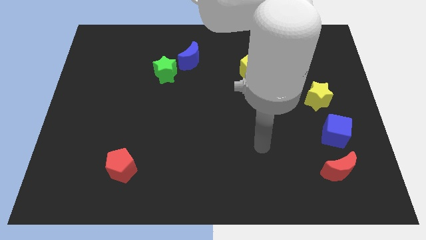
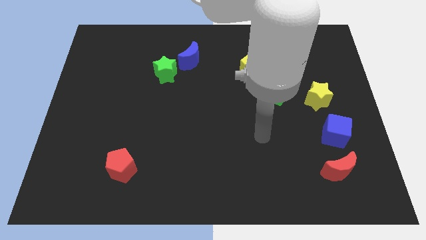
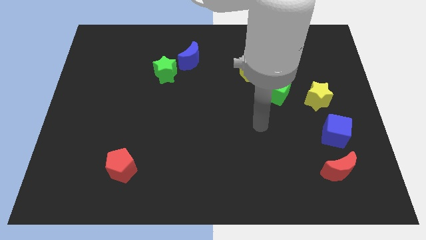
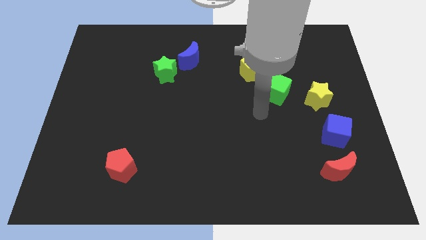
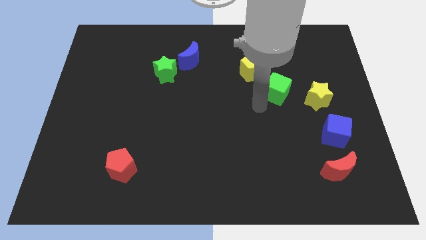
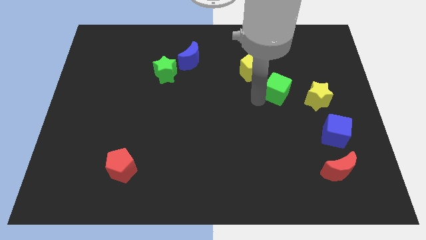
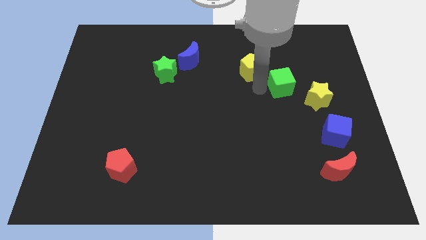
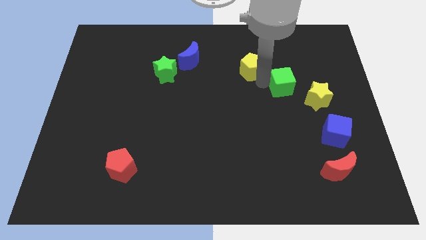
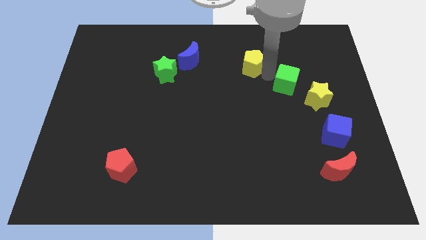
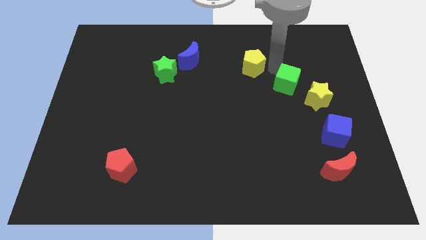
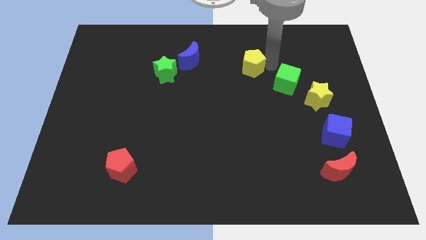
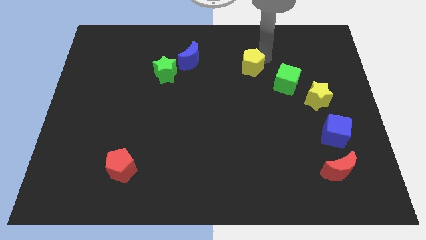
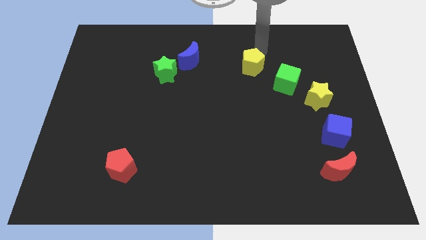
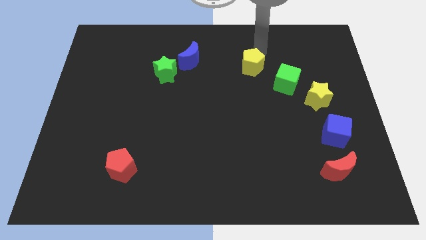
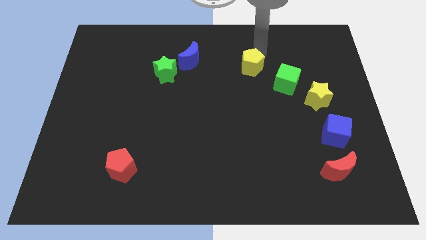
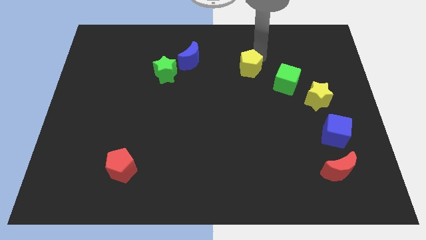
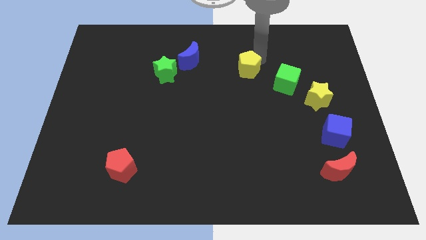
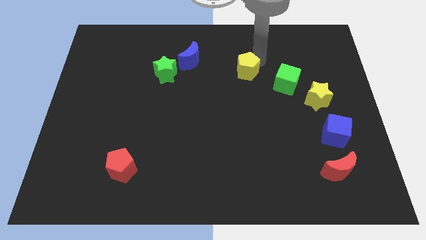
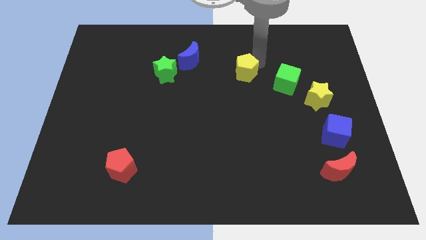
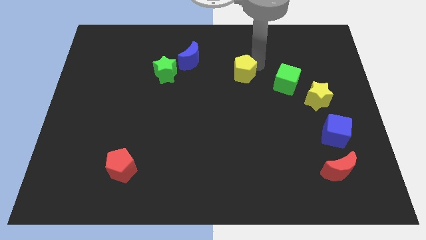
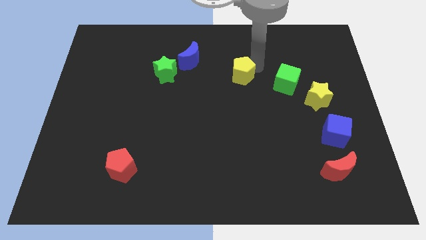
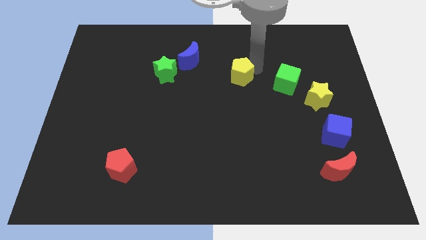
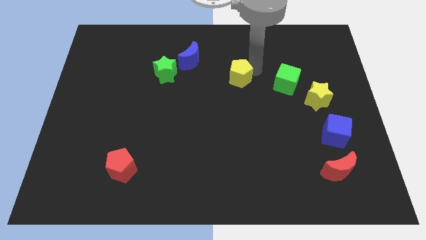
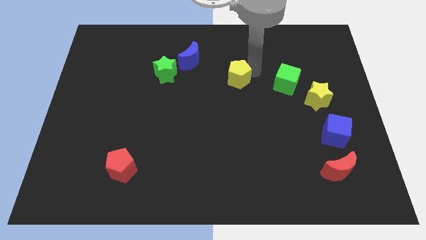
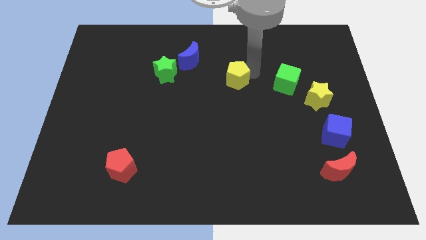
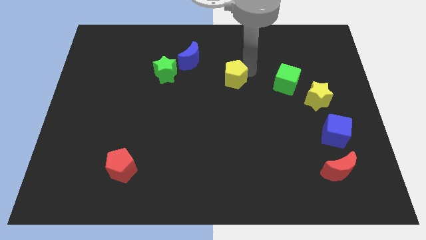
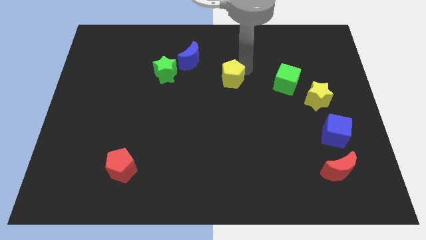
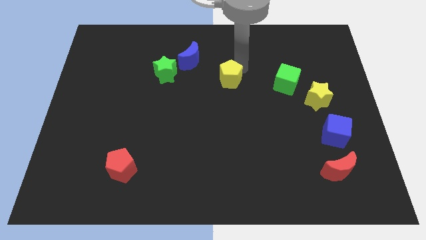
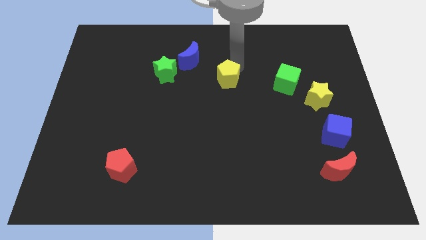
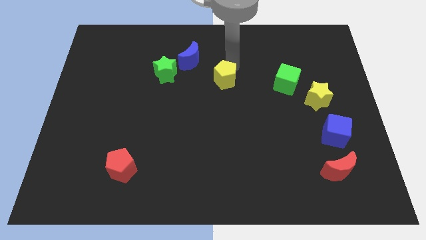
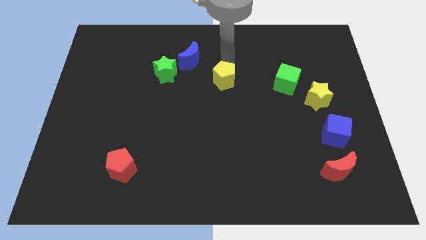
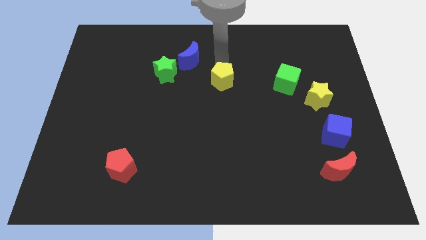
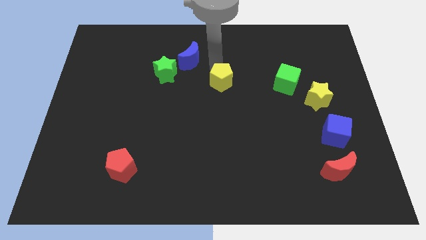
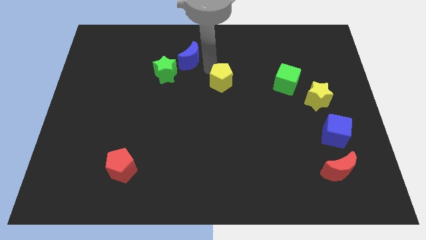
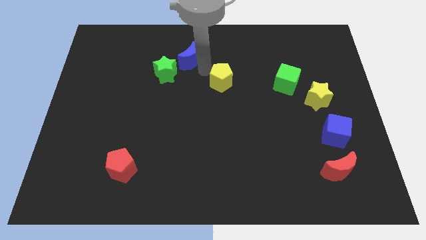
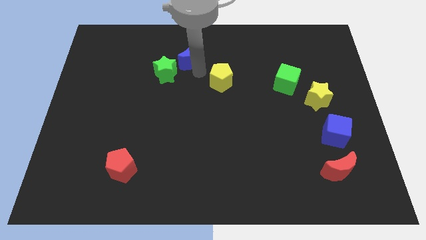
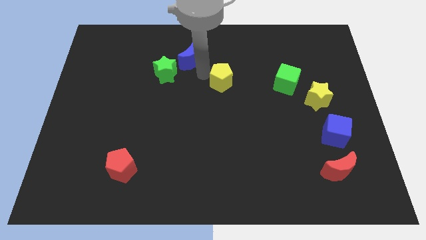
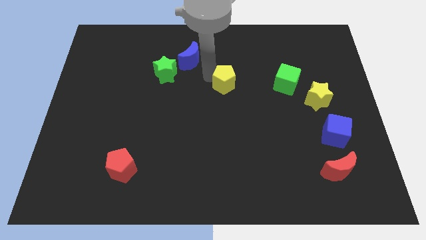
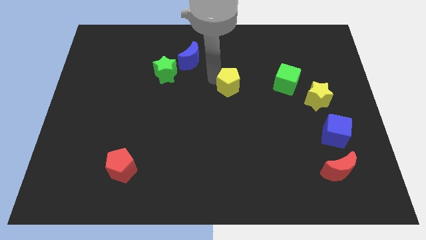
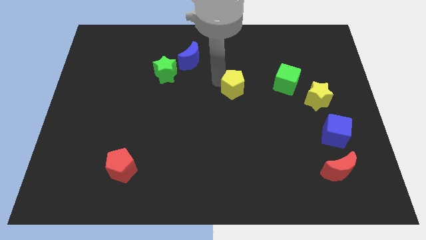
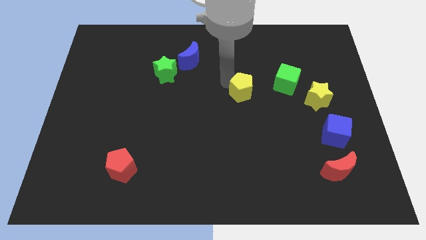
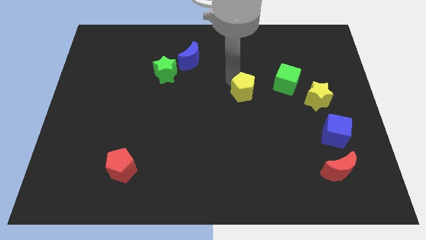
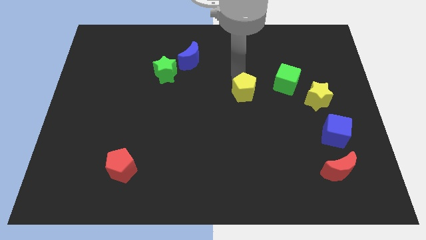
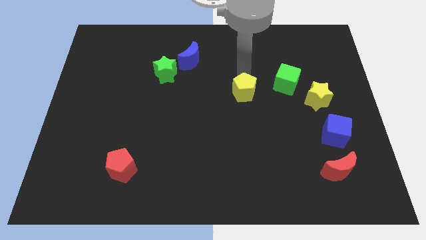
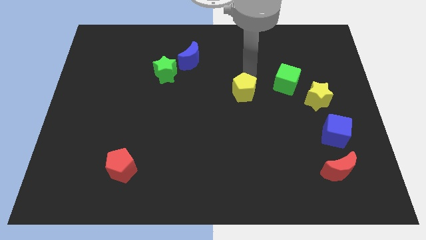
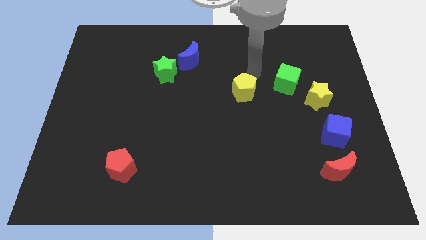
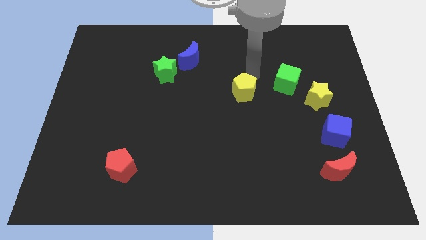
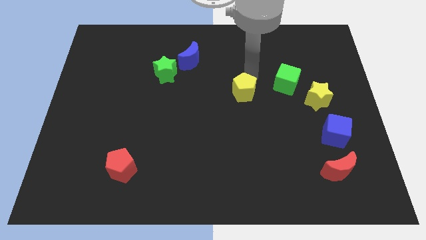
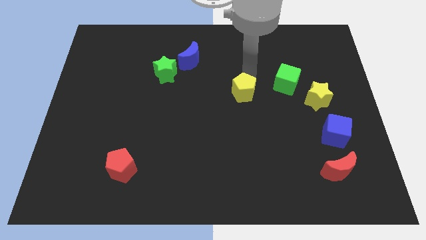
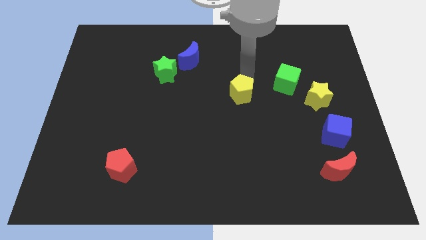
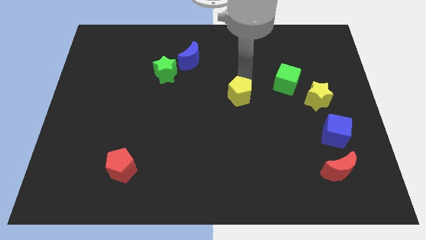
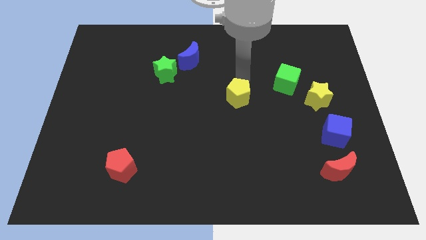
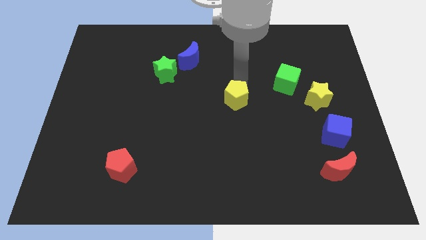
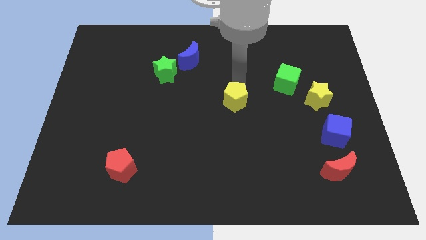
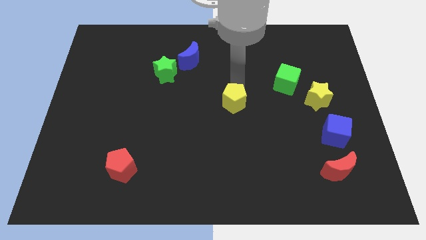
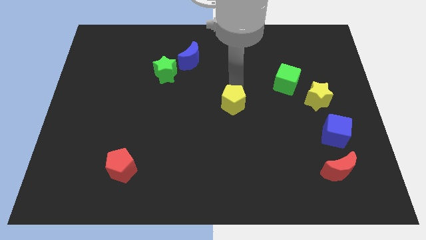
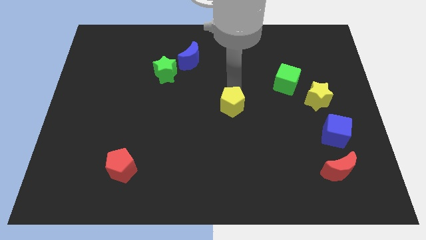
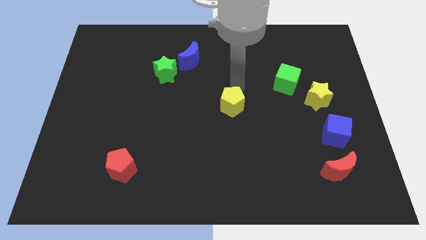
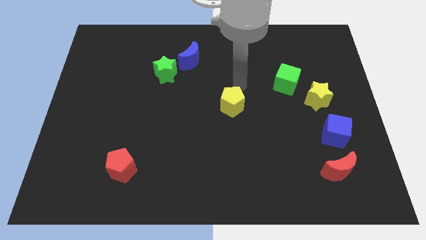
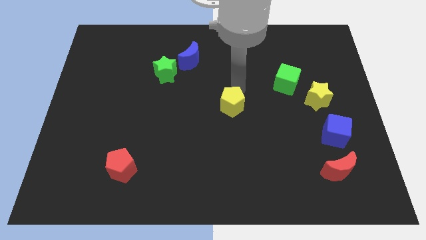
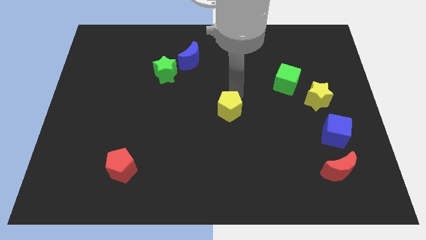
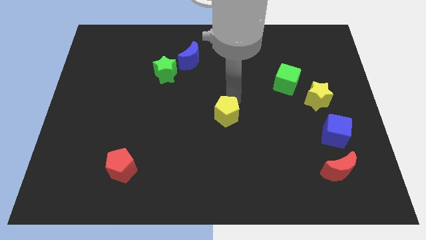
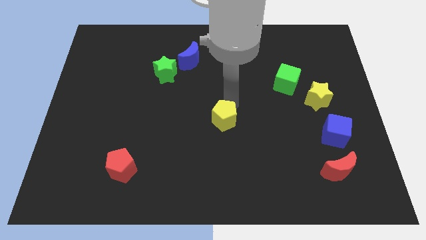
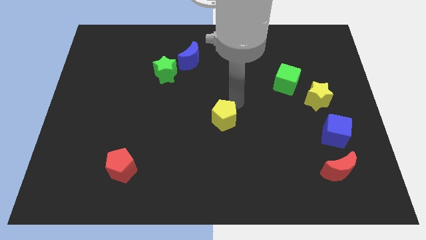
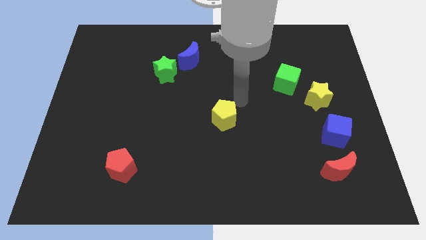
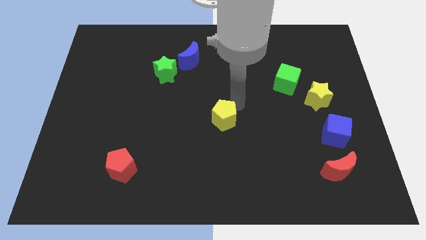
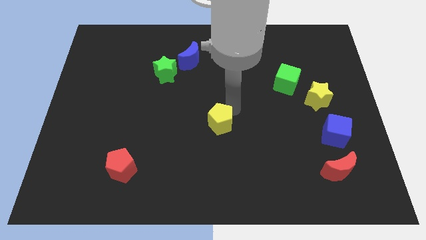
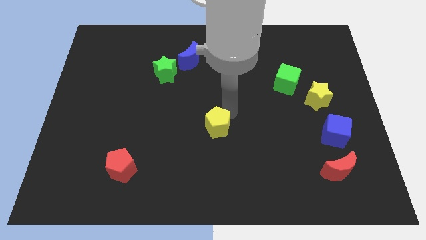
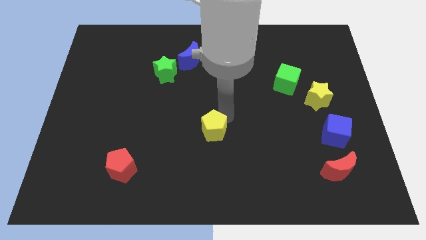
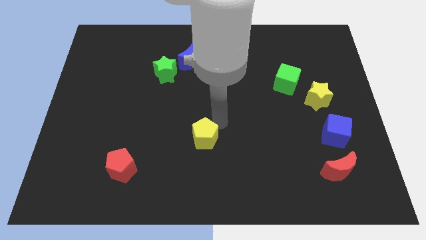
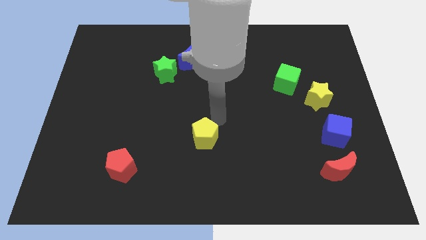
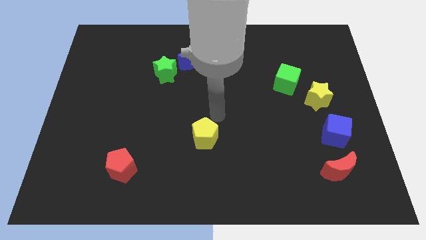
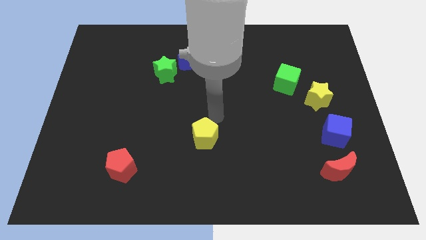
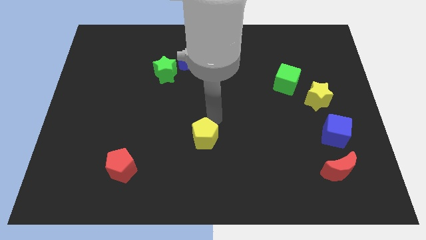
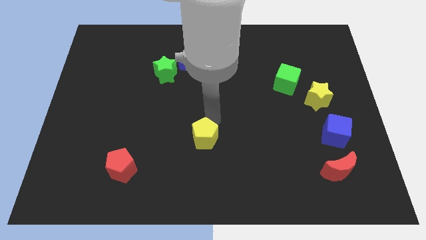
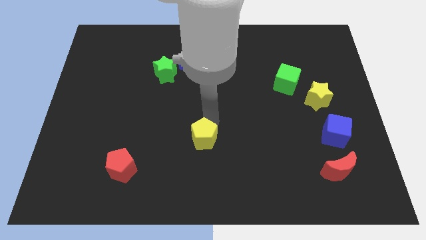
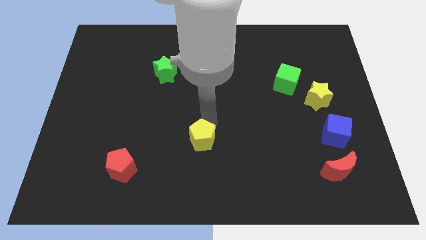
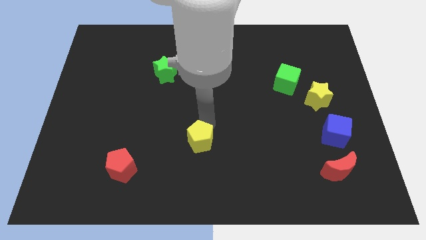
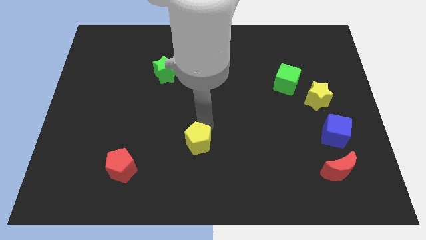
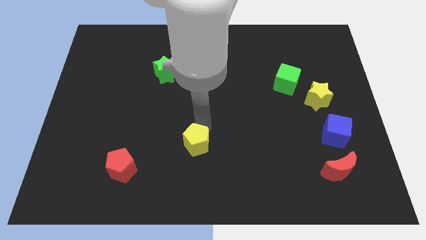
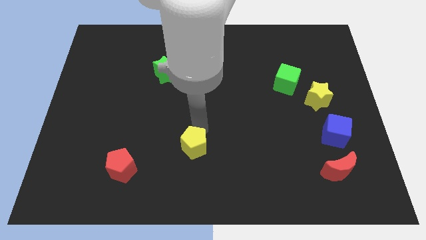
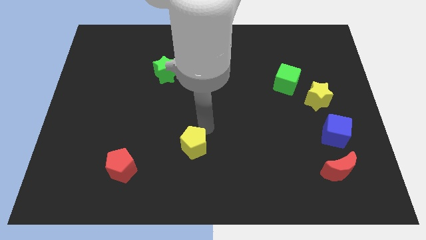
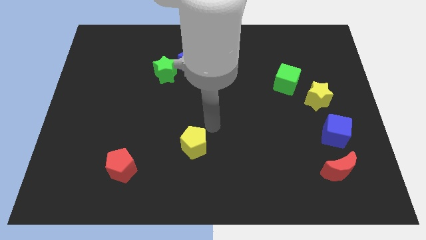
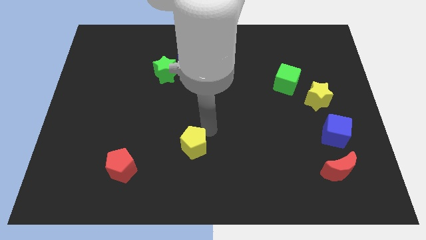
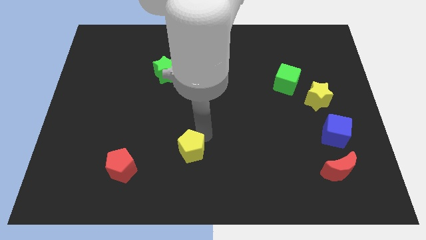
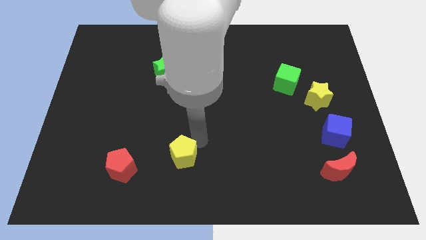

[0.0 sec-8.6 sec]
move the yellow pentagon to the right side of the red pentagon
